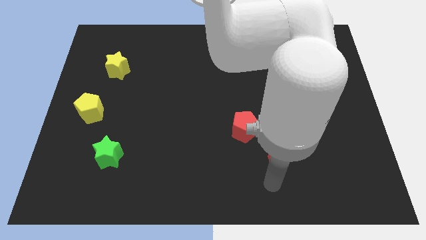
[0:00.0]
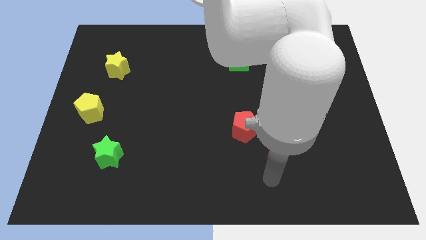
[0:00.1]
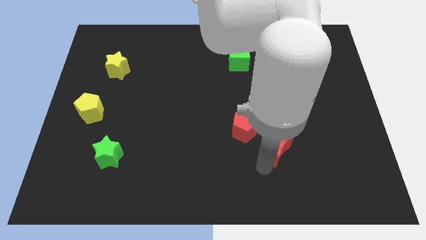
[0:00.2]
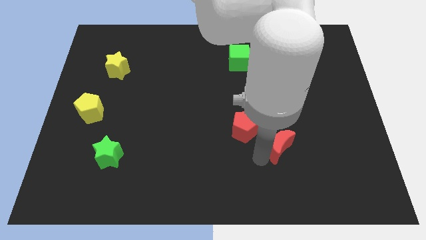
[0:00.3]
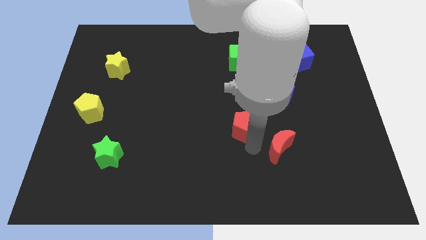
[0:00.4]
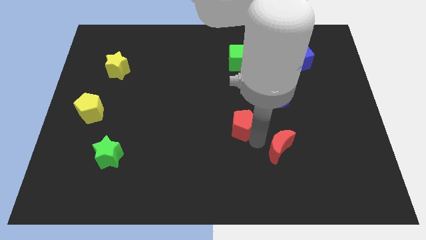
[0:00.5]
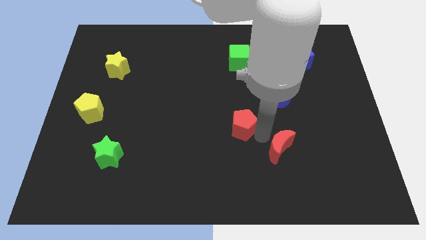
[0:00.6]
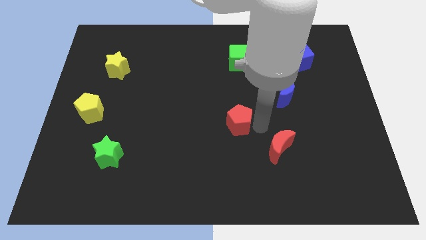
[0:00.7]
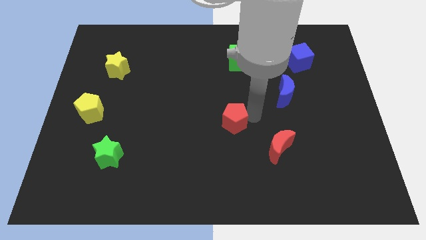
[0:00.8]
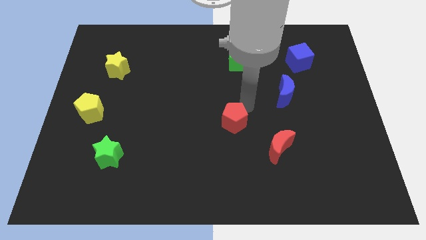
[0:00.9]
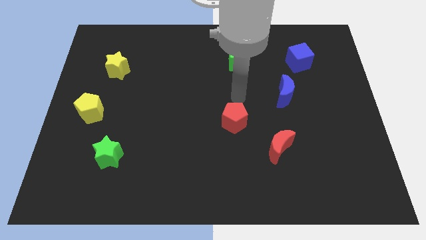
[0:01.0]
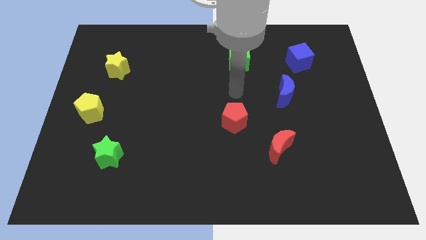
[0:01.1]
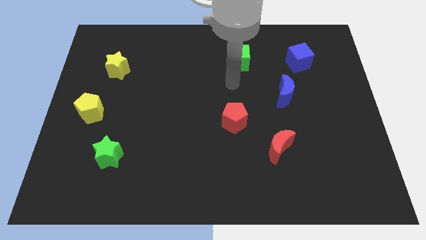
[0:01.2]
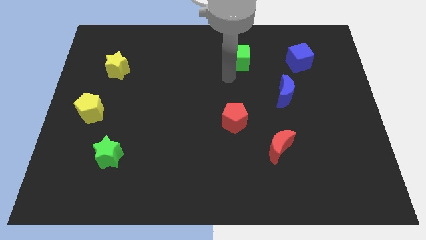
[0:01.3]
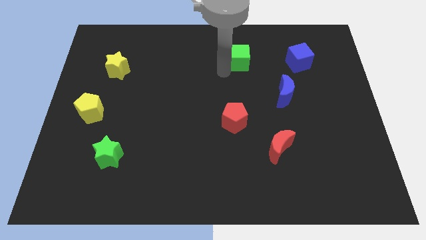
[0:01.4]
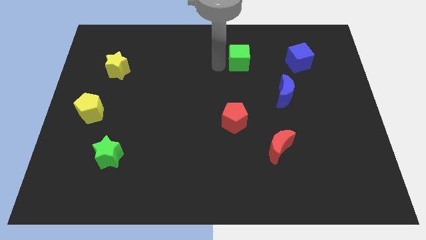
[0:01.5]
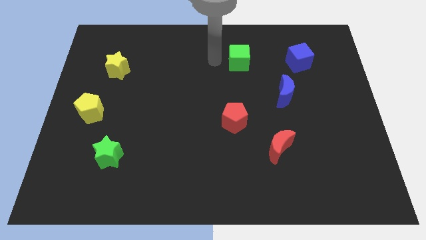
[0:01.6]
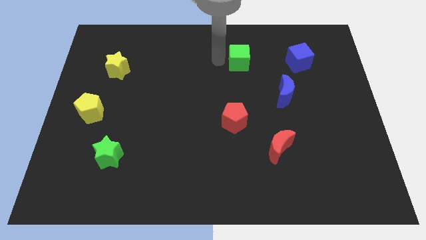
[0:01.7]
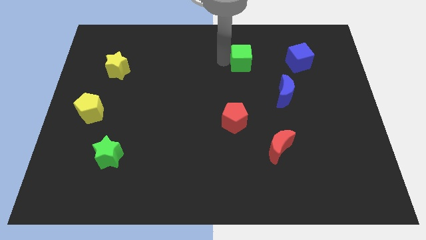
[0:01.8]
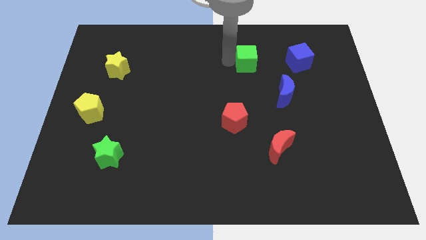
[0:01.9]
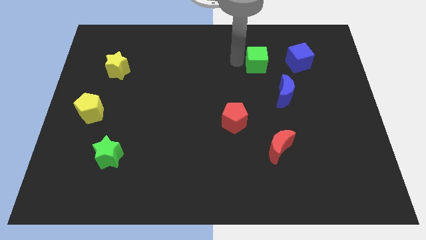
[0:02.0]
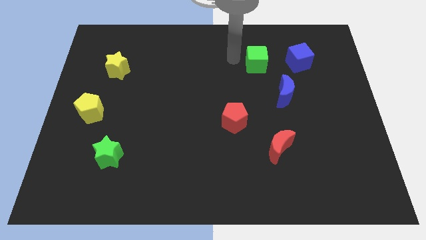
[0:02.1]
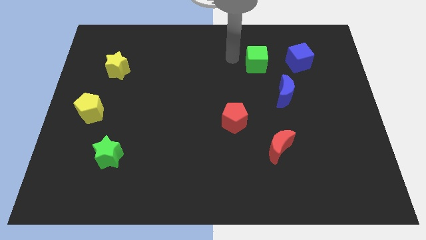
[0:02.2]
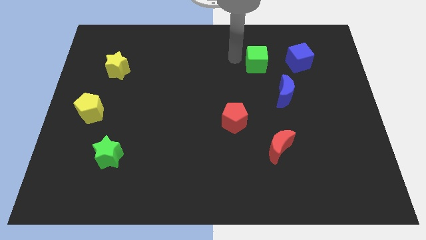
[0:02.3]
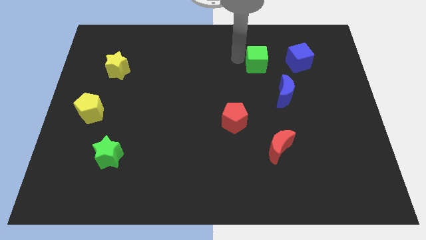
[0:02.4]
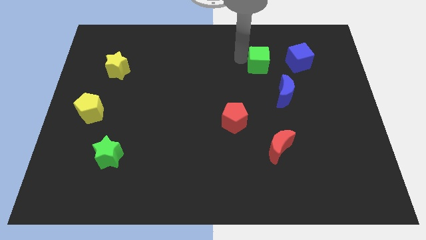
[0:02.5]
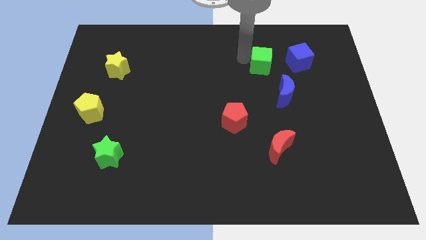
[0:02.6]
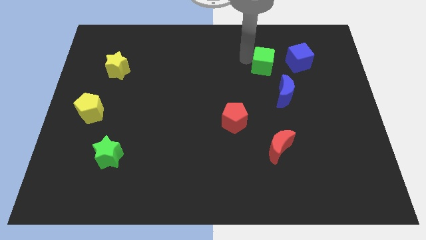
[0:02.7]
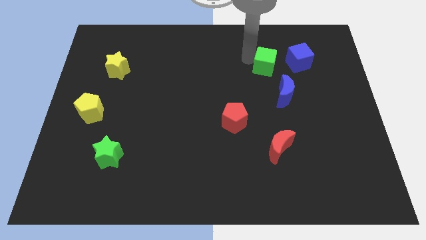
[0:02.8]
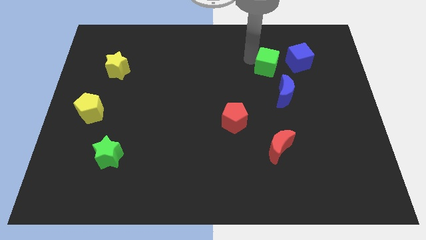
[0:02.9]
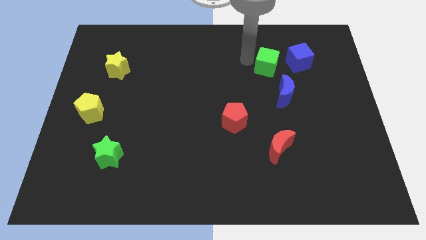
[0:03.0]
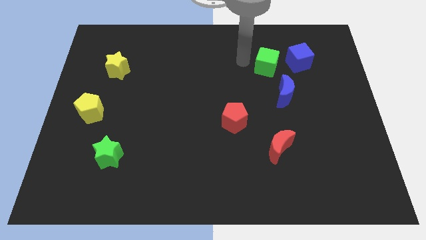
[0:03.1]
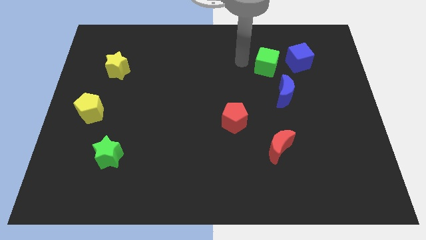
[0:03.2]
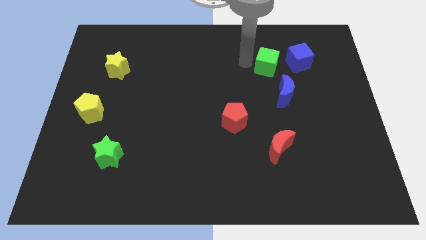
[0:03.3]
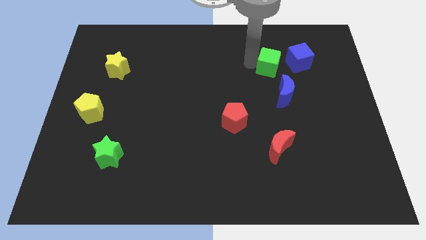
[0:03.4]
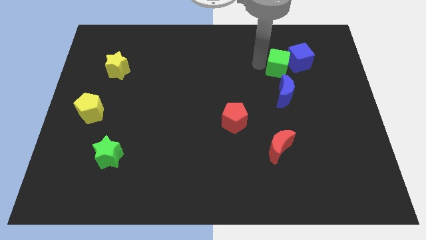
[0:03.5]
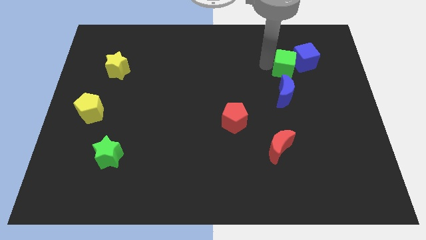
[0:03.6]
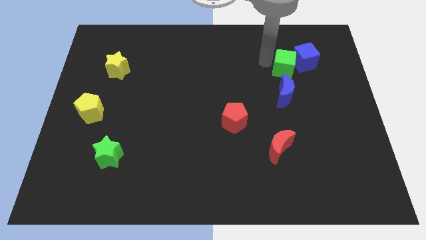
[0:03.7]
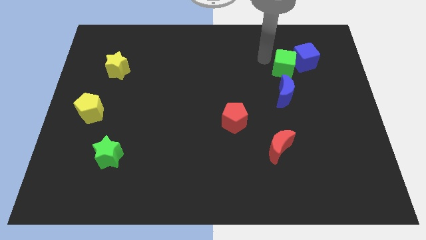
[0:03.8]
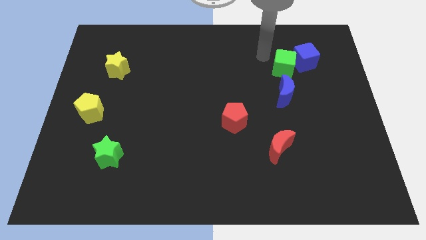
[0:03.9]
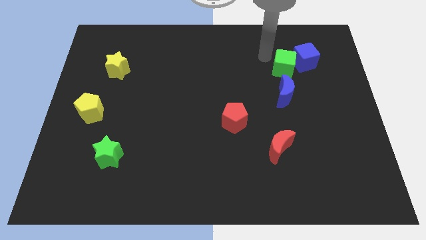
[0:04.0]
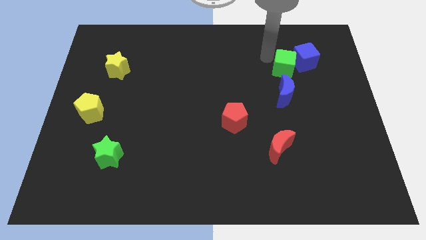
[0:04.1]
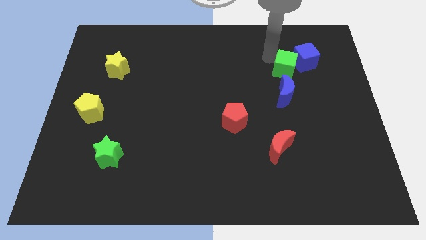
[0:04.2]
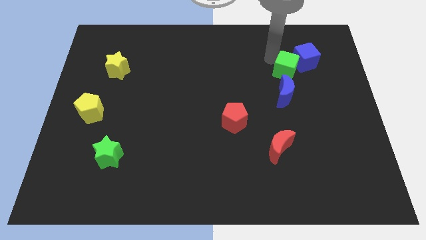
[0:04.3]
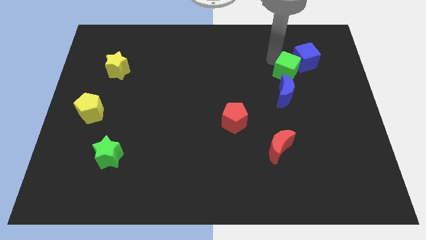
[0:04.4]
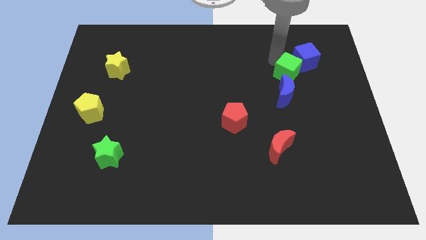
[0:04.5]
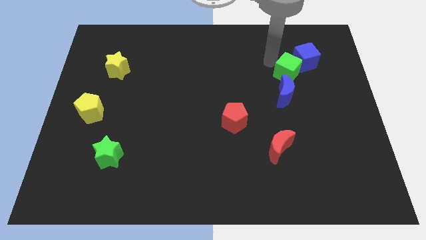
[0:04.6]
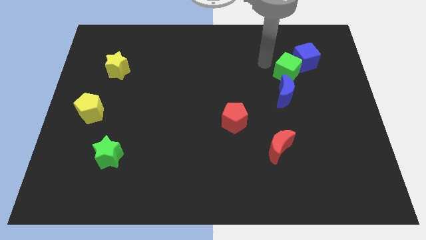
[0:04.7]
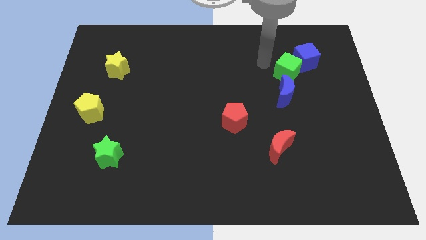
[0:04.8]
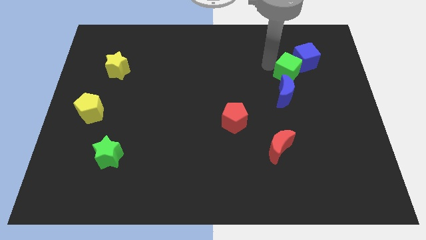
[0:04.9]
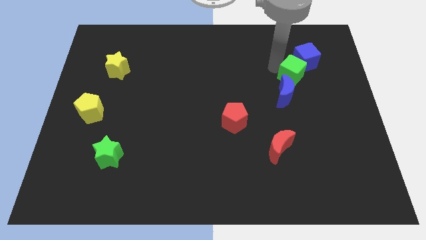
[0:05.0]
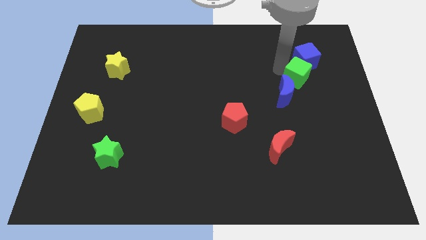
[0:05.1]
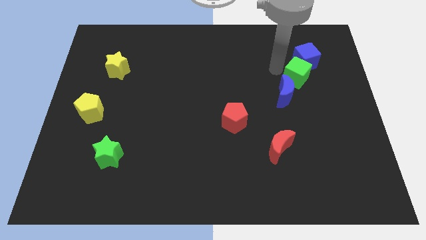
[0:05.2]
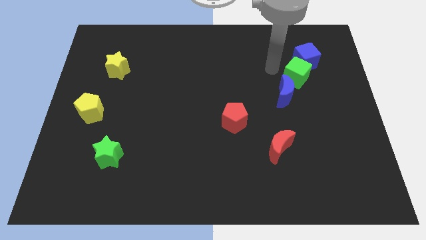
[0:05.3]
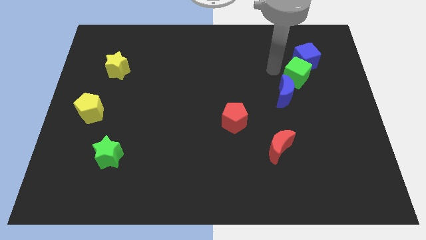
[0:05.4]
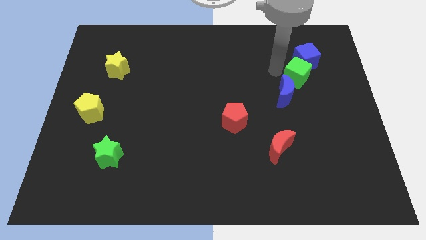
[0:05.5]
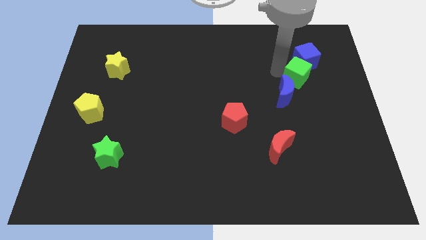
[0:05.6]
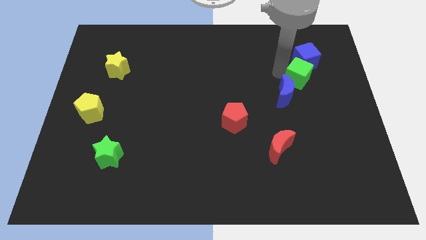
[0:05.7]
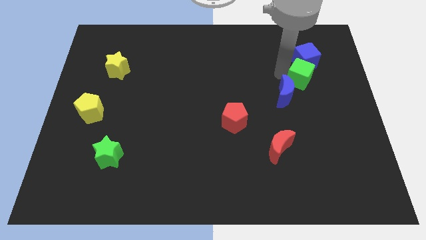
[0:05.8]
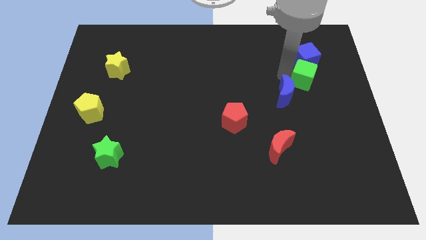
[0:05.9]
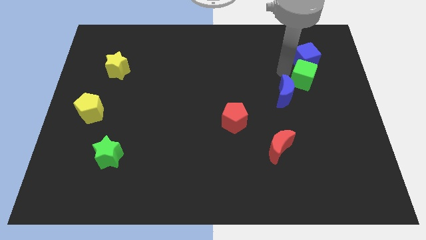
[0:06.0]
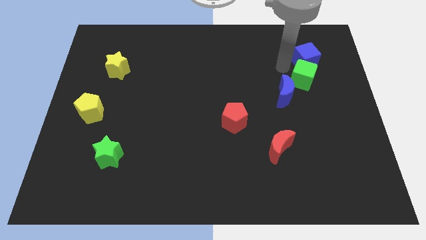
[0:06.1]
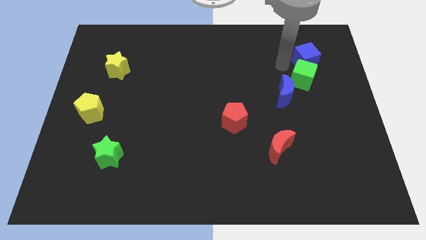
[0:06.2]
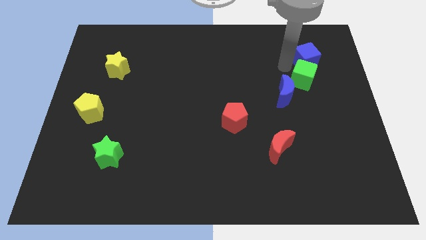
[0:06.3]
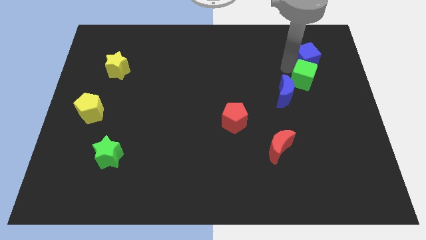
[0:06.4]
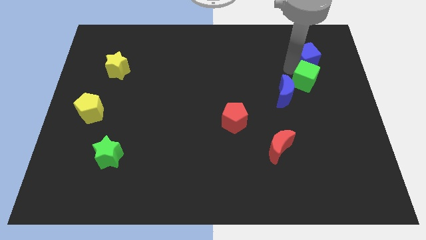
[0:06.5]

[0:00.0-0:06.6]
slide the green cube to the right of the blue moon
